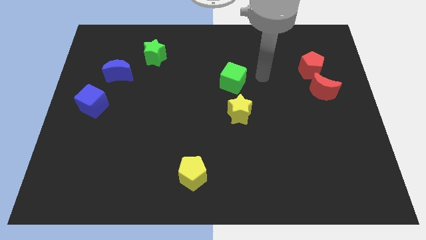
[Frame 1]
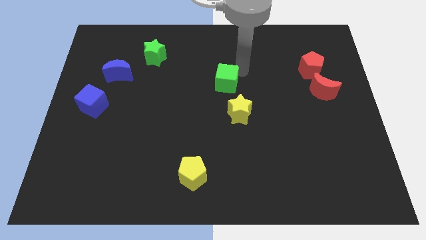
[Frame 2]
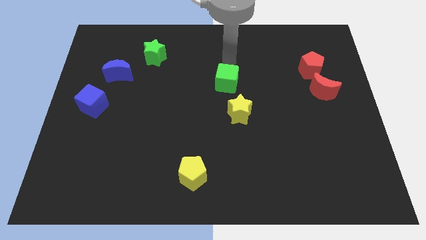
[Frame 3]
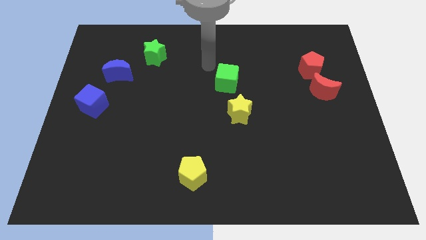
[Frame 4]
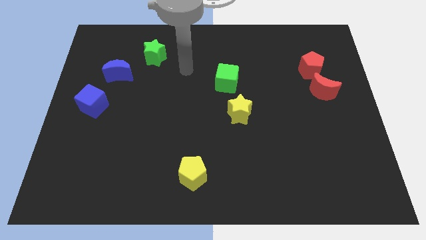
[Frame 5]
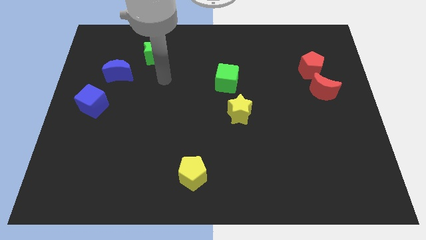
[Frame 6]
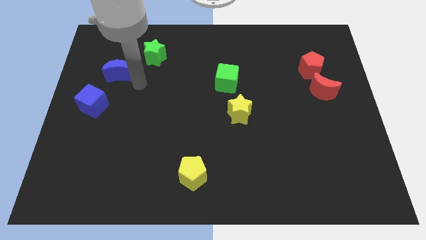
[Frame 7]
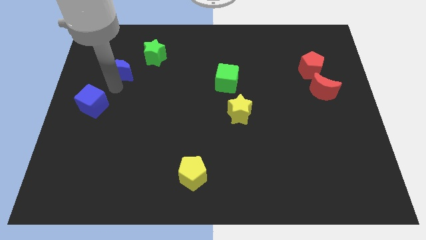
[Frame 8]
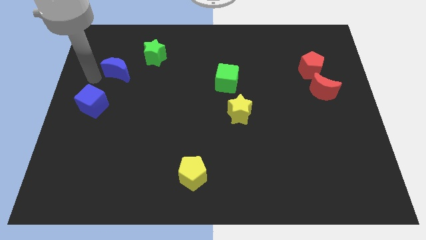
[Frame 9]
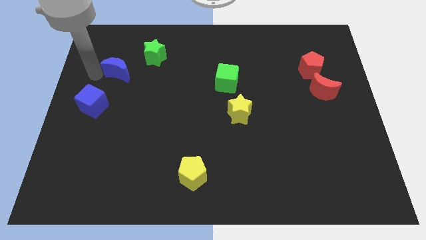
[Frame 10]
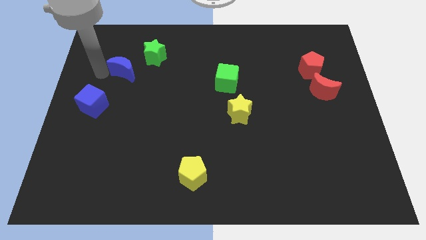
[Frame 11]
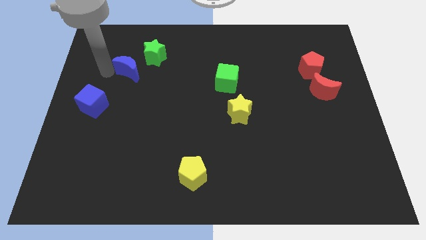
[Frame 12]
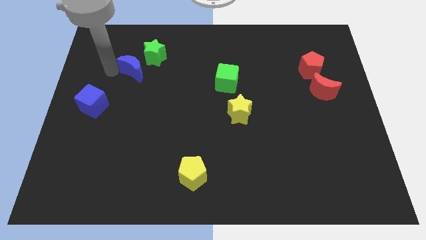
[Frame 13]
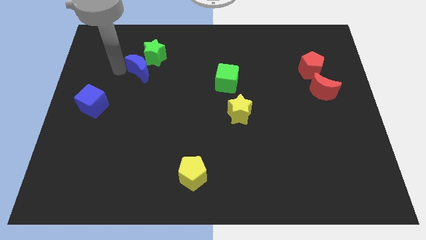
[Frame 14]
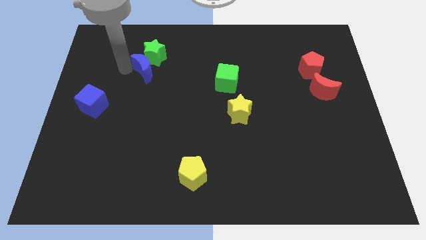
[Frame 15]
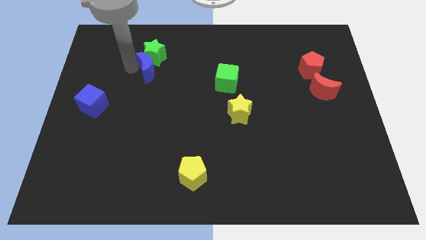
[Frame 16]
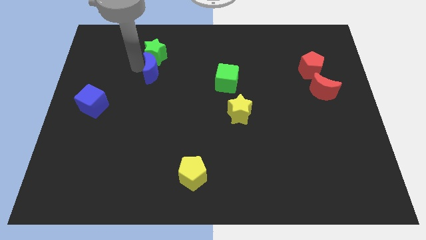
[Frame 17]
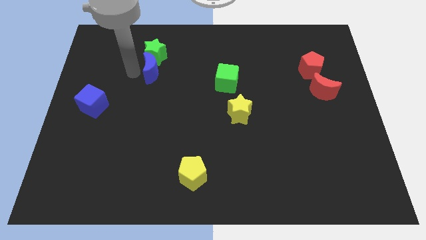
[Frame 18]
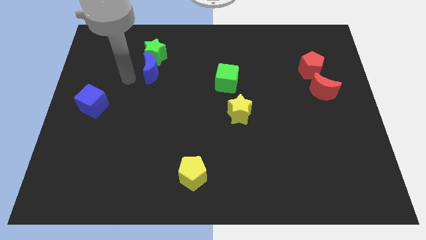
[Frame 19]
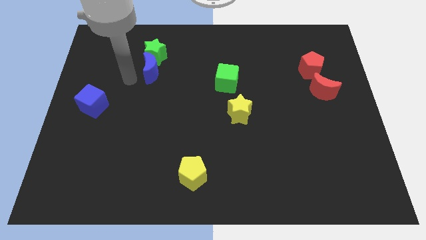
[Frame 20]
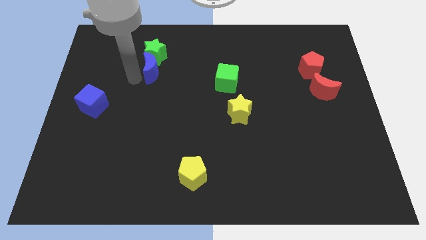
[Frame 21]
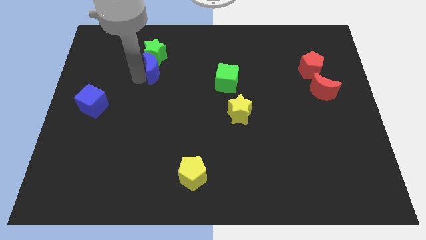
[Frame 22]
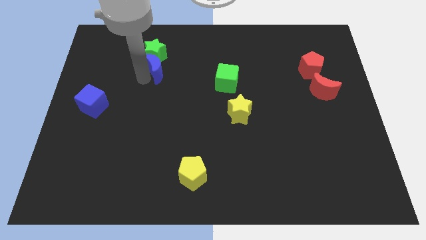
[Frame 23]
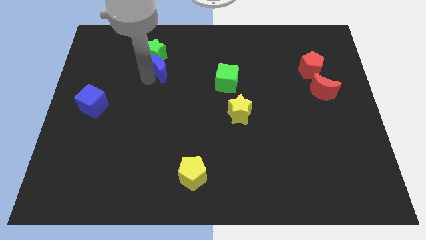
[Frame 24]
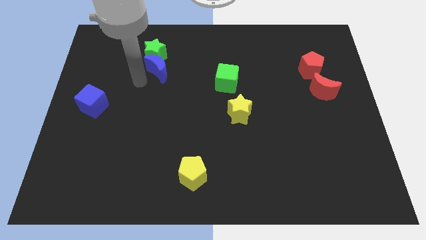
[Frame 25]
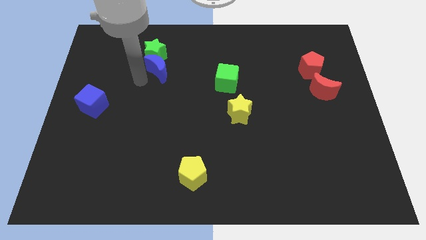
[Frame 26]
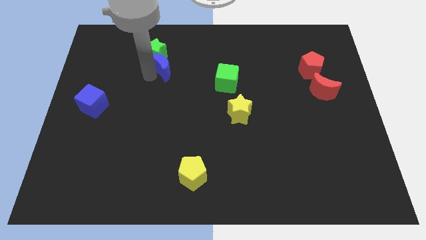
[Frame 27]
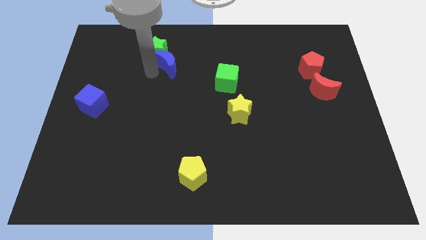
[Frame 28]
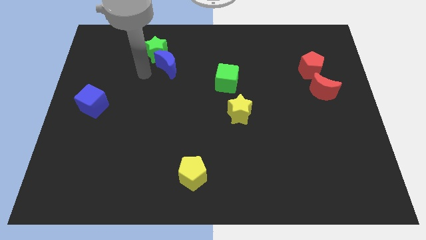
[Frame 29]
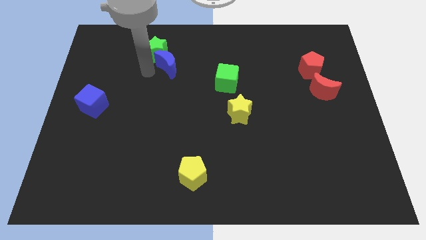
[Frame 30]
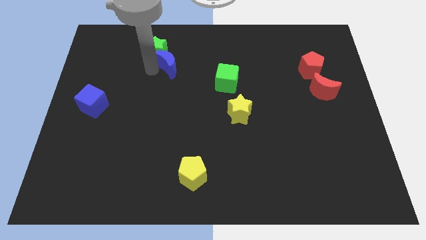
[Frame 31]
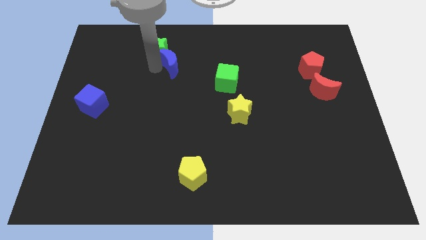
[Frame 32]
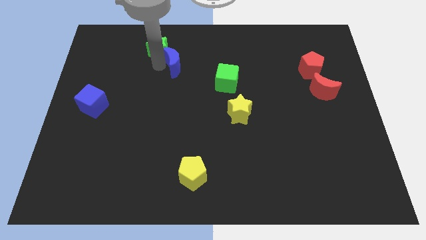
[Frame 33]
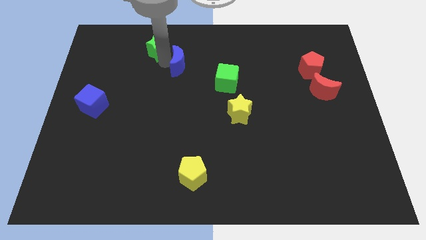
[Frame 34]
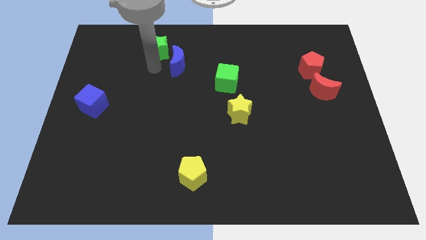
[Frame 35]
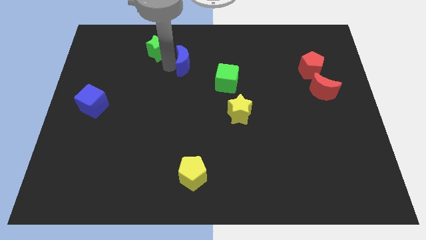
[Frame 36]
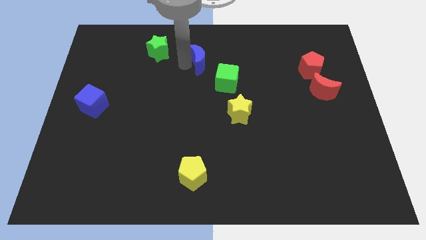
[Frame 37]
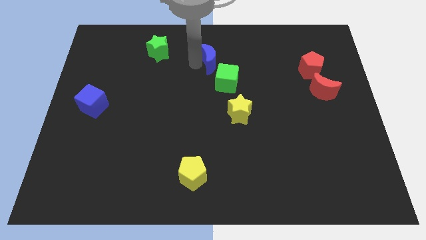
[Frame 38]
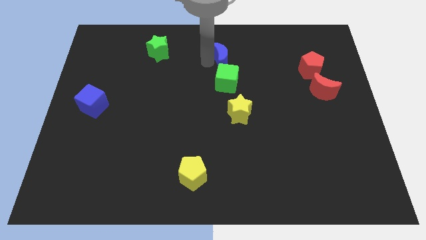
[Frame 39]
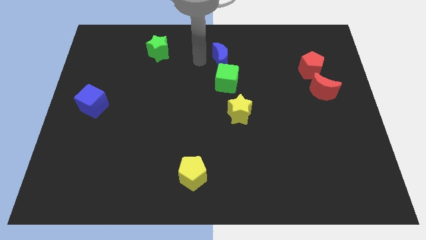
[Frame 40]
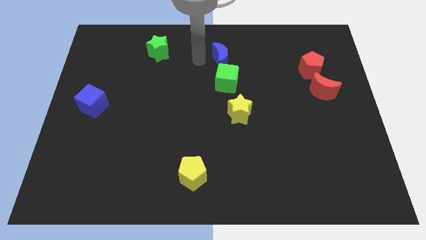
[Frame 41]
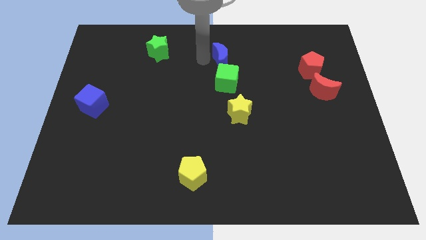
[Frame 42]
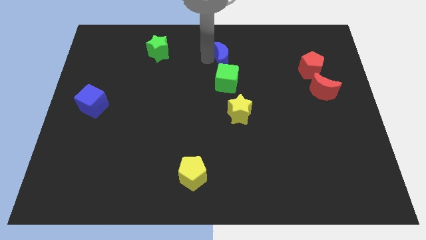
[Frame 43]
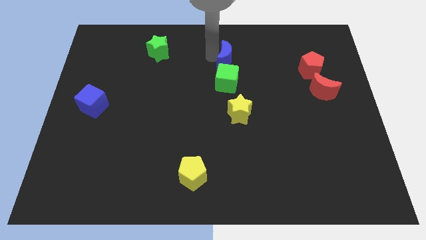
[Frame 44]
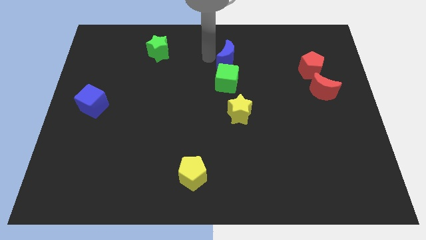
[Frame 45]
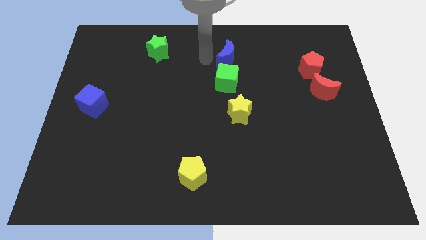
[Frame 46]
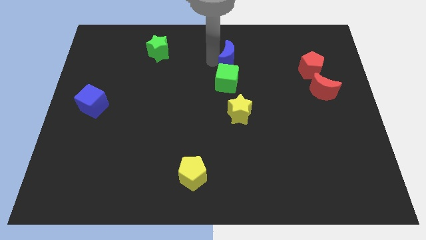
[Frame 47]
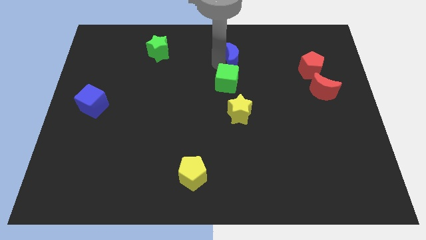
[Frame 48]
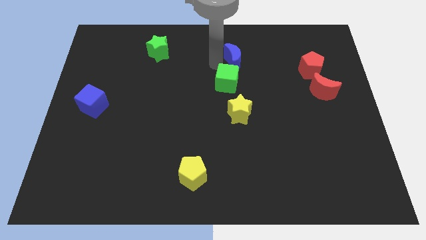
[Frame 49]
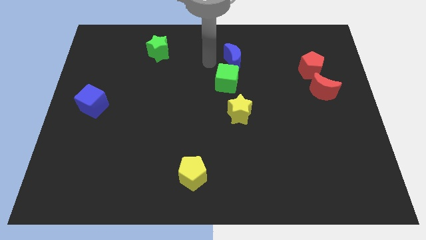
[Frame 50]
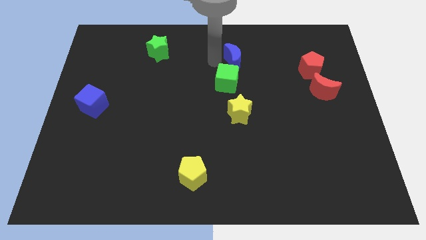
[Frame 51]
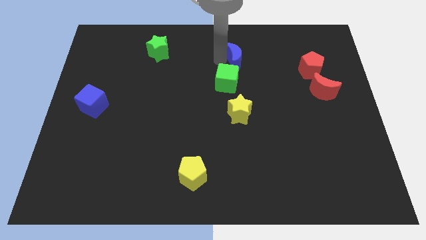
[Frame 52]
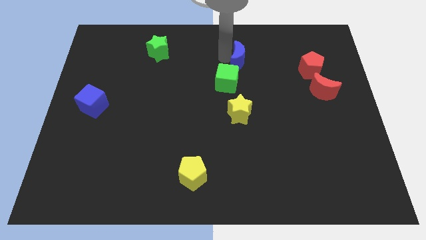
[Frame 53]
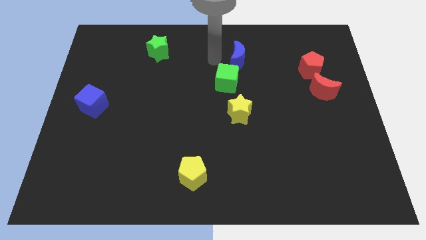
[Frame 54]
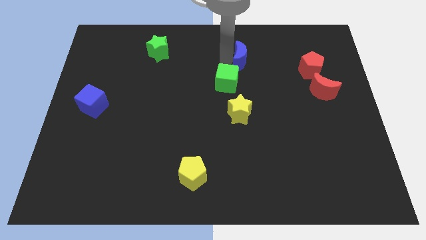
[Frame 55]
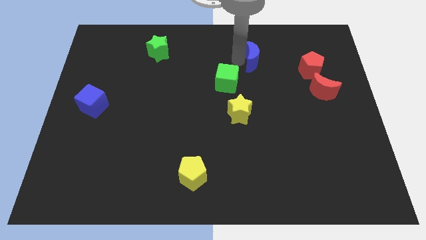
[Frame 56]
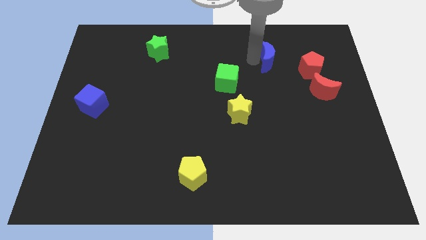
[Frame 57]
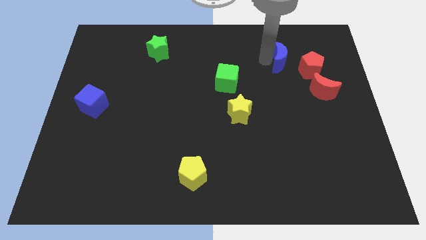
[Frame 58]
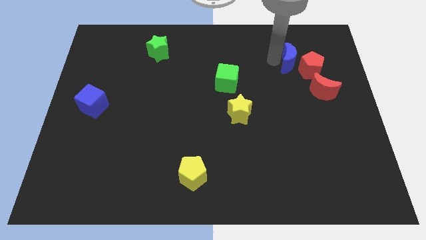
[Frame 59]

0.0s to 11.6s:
push the blue moon close to the red pentagon
